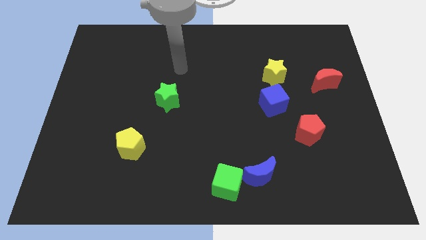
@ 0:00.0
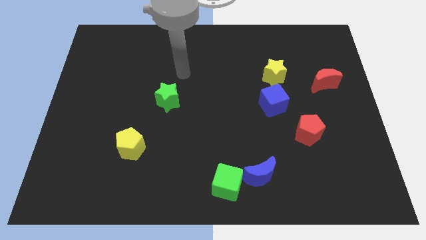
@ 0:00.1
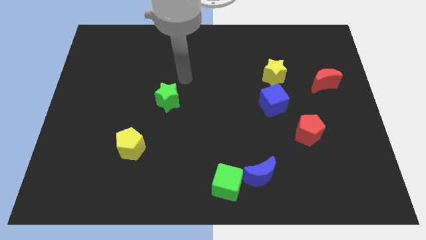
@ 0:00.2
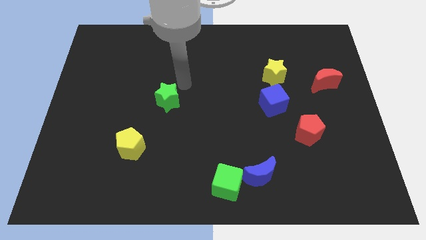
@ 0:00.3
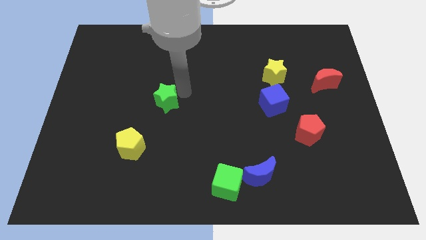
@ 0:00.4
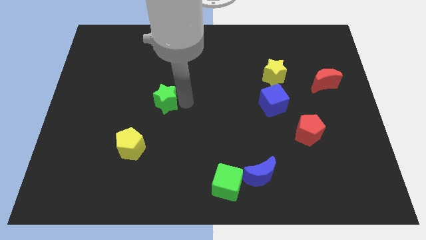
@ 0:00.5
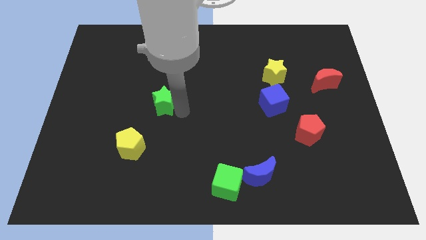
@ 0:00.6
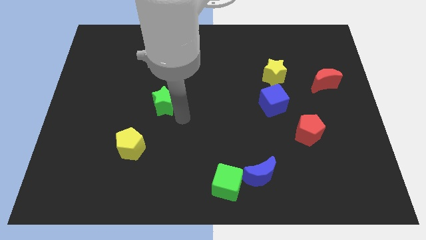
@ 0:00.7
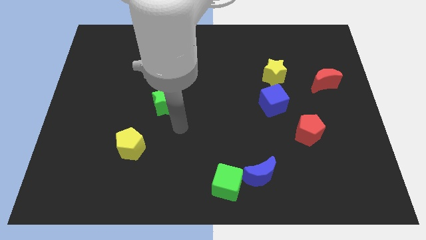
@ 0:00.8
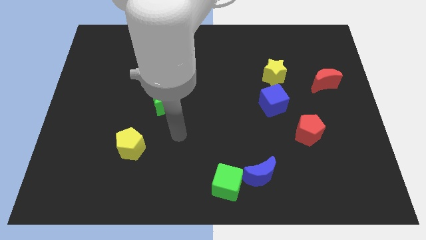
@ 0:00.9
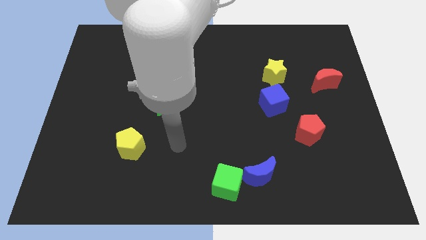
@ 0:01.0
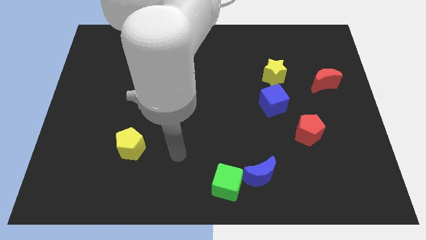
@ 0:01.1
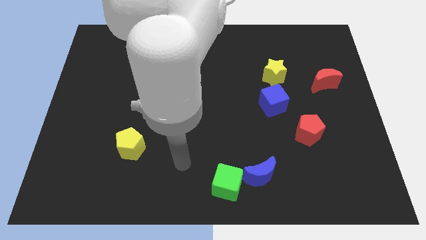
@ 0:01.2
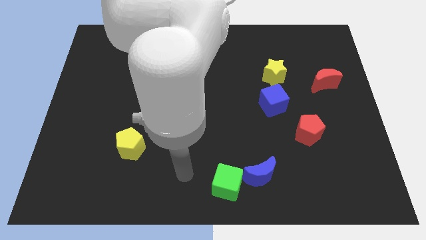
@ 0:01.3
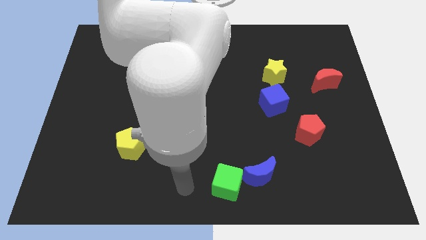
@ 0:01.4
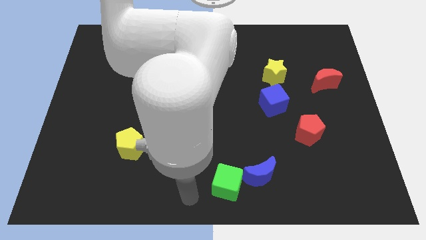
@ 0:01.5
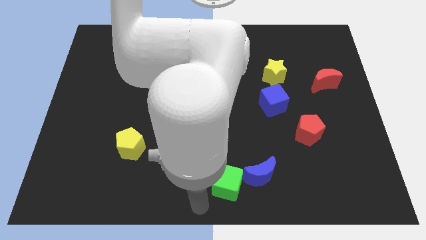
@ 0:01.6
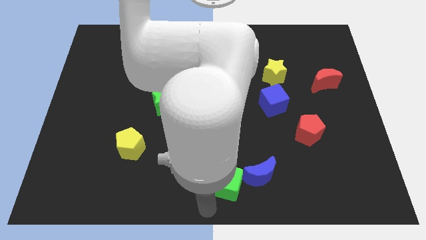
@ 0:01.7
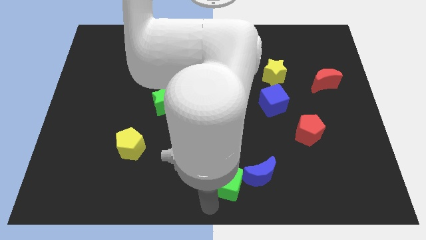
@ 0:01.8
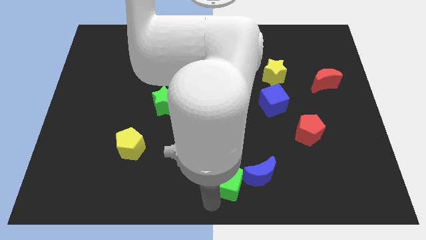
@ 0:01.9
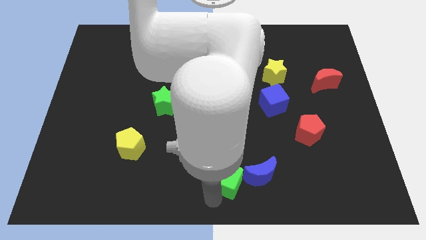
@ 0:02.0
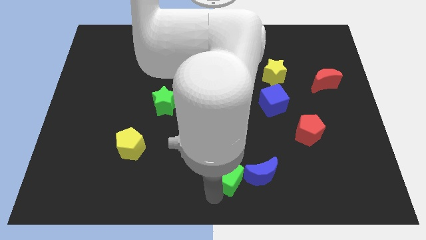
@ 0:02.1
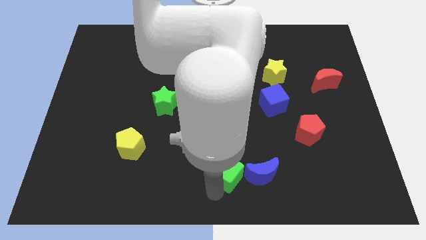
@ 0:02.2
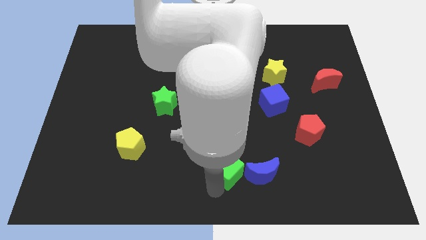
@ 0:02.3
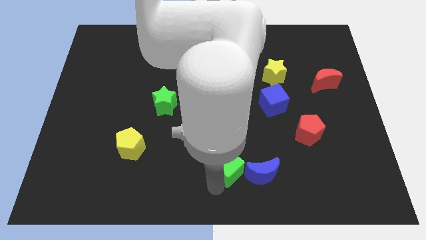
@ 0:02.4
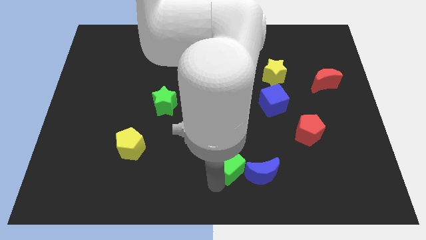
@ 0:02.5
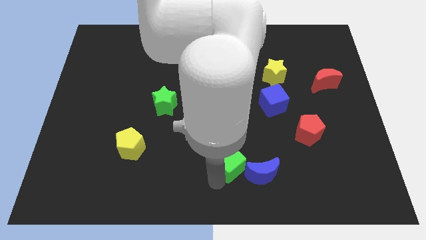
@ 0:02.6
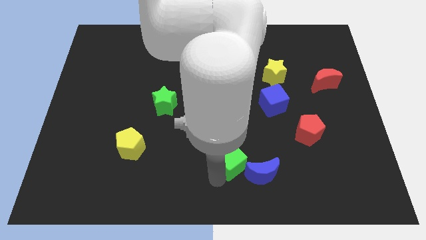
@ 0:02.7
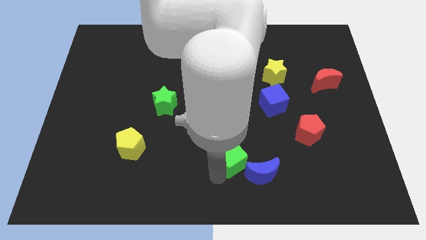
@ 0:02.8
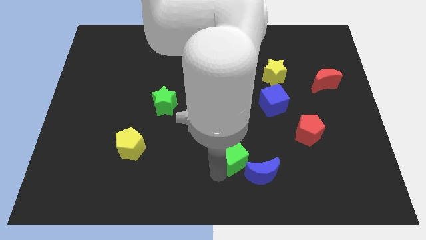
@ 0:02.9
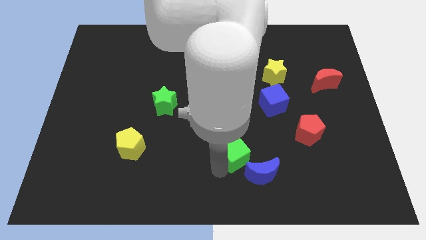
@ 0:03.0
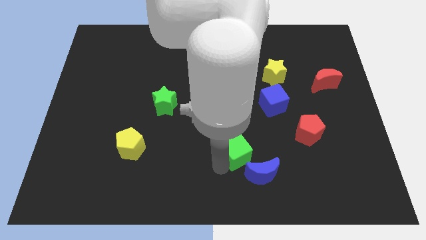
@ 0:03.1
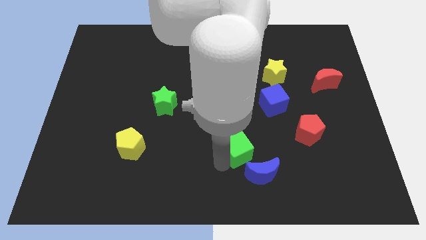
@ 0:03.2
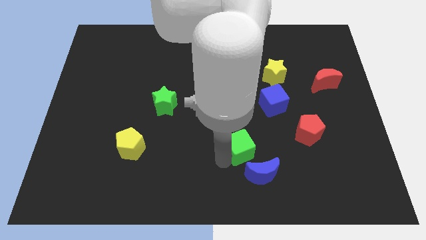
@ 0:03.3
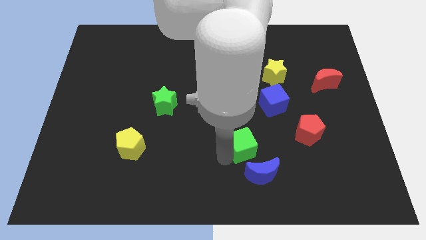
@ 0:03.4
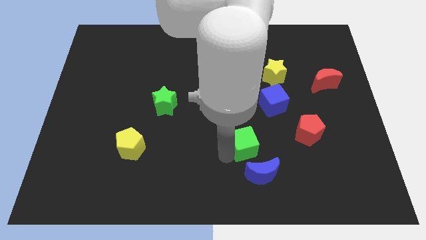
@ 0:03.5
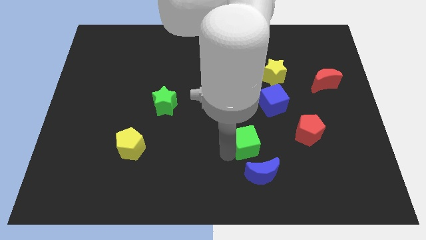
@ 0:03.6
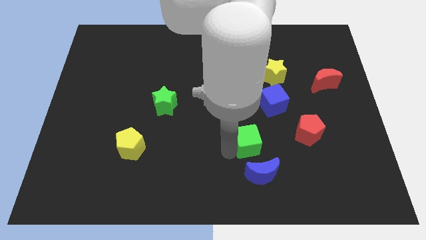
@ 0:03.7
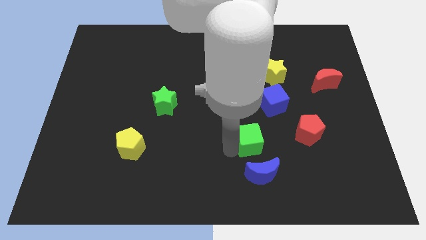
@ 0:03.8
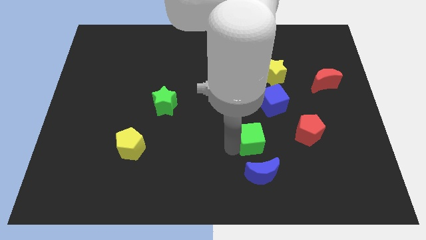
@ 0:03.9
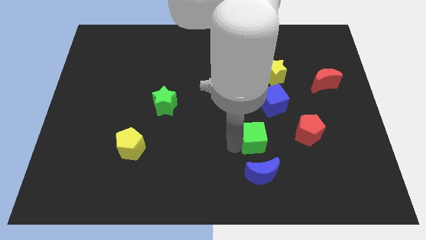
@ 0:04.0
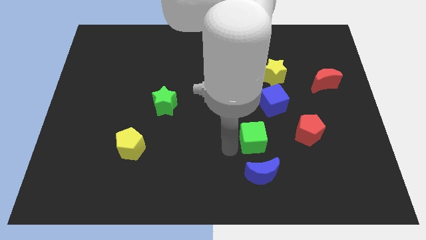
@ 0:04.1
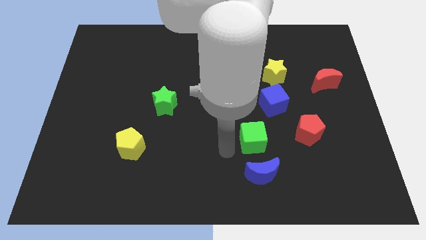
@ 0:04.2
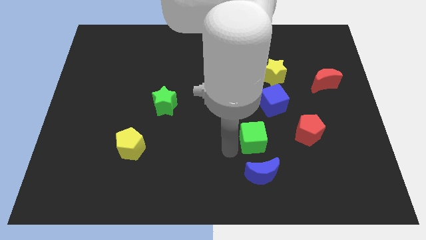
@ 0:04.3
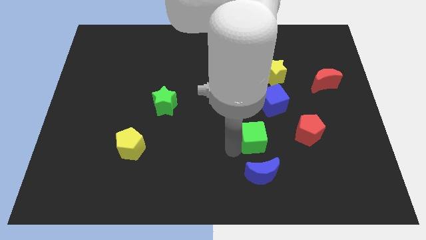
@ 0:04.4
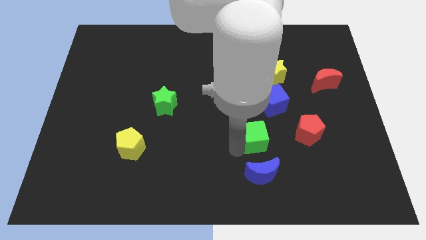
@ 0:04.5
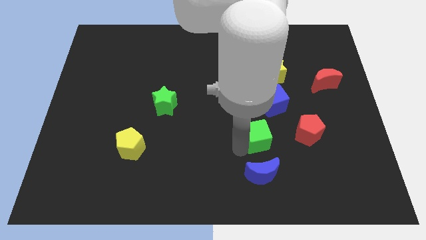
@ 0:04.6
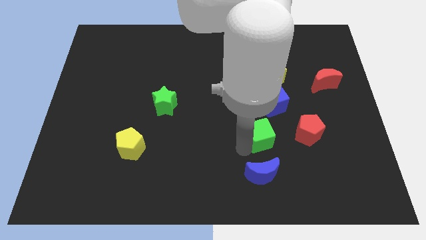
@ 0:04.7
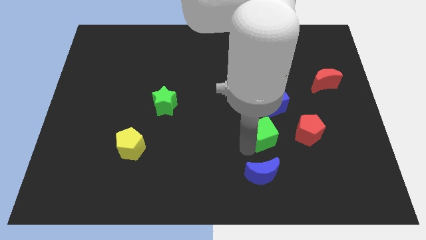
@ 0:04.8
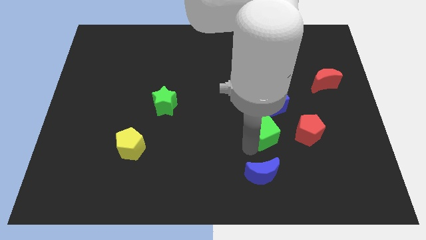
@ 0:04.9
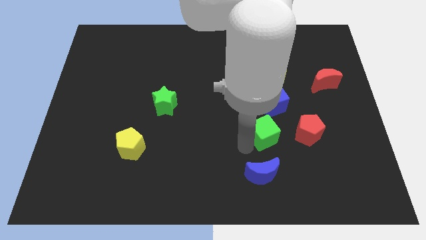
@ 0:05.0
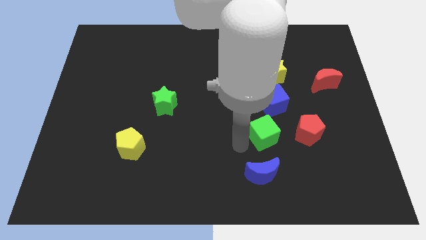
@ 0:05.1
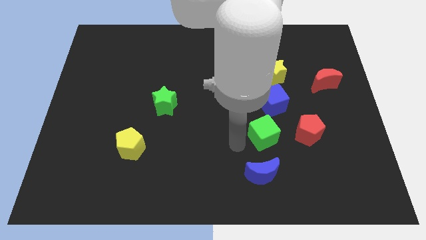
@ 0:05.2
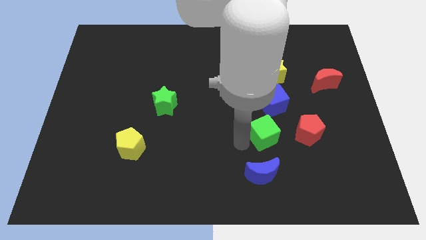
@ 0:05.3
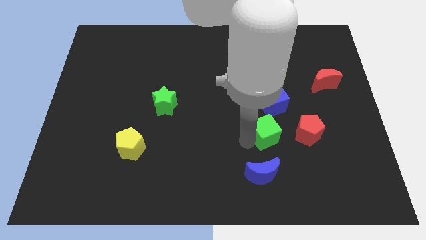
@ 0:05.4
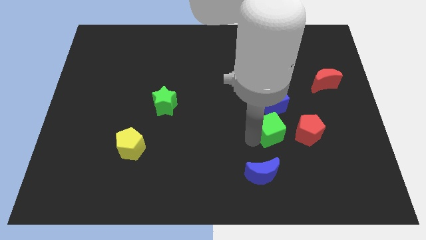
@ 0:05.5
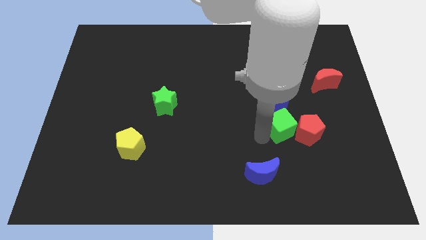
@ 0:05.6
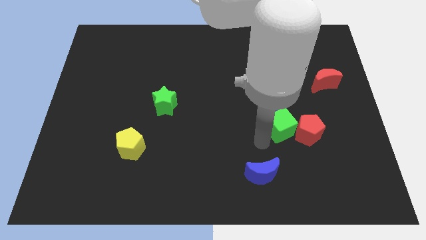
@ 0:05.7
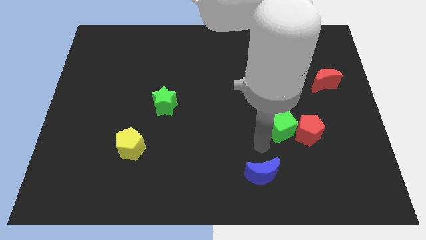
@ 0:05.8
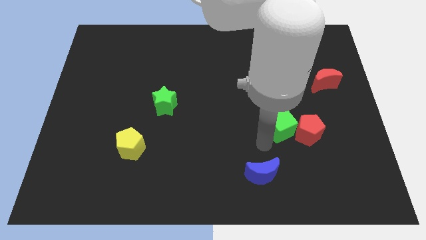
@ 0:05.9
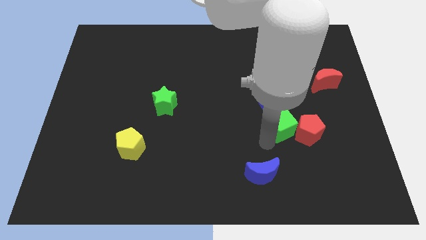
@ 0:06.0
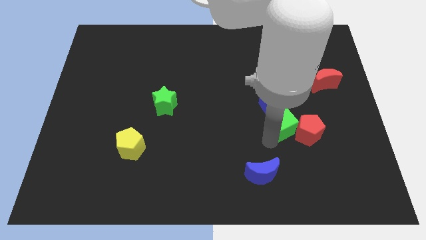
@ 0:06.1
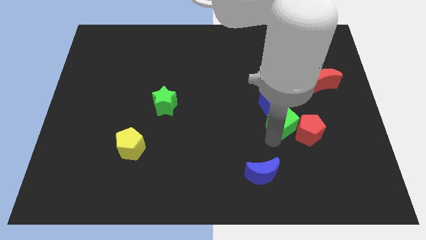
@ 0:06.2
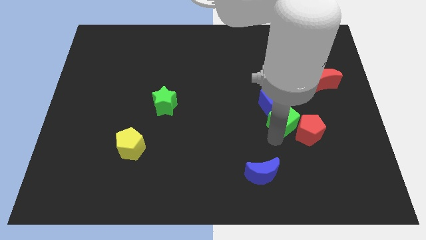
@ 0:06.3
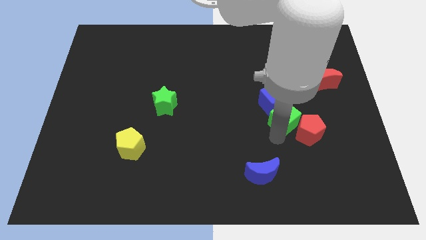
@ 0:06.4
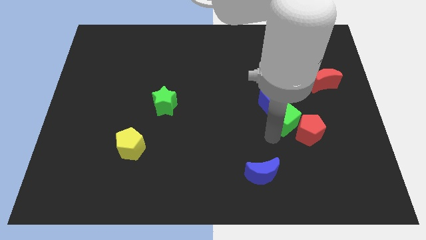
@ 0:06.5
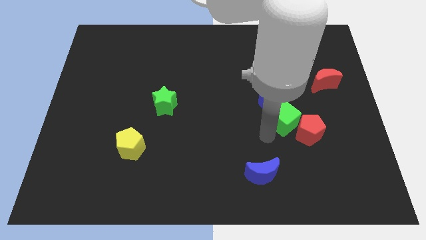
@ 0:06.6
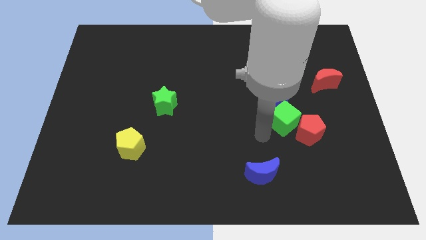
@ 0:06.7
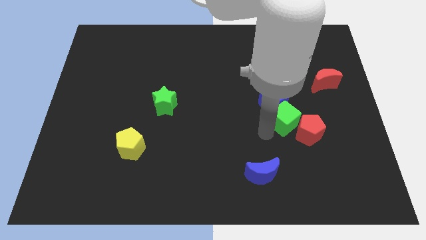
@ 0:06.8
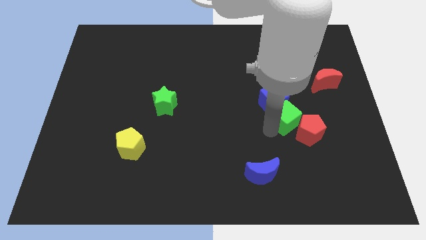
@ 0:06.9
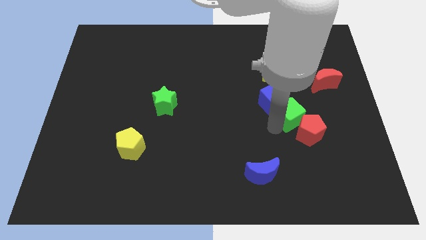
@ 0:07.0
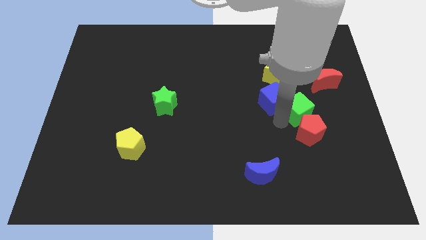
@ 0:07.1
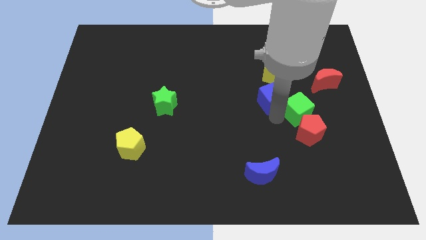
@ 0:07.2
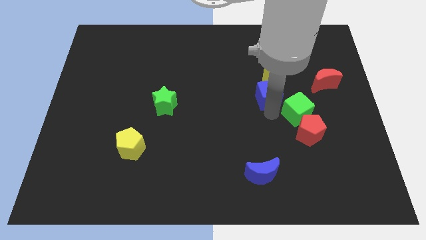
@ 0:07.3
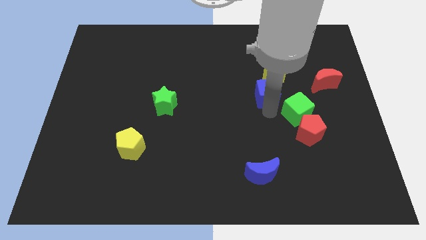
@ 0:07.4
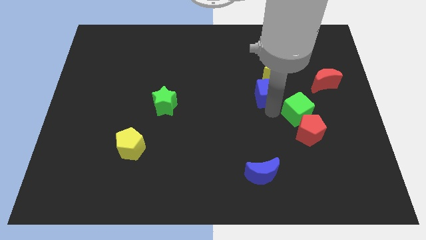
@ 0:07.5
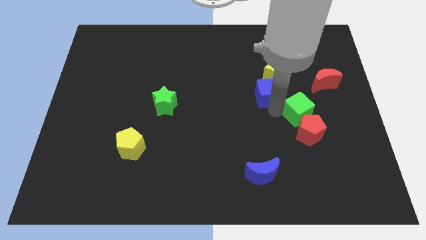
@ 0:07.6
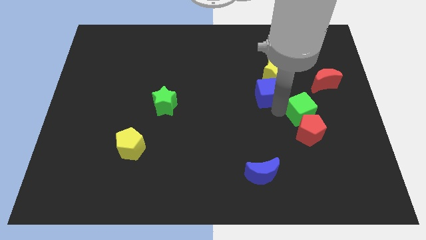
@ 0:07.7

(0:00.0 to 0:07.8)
push the green cube to the top right side of the red pentagon
